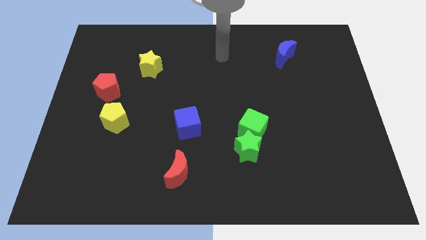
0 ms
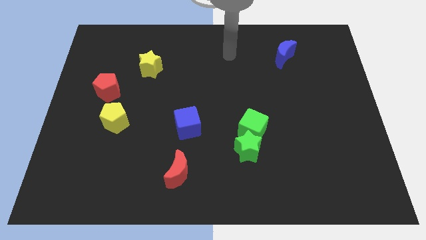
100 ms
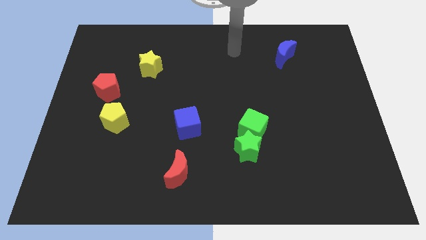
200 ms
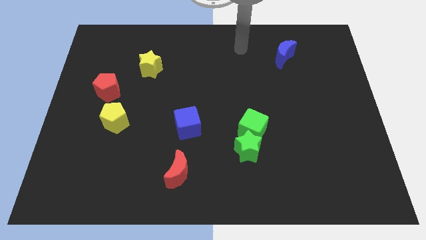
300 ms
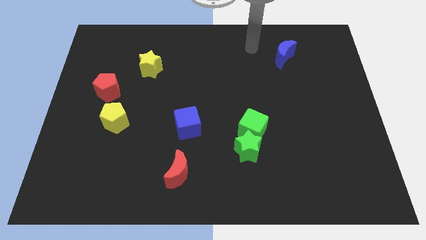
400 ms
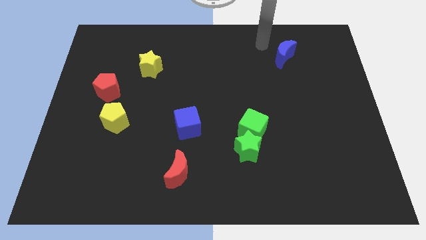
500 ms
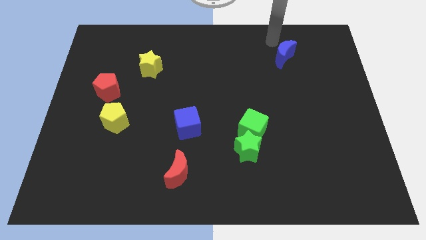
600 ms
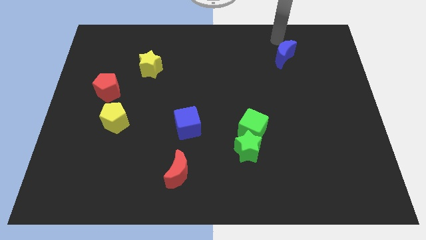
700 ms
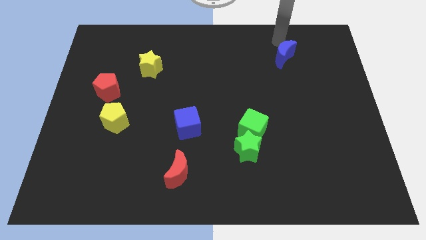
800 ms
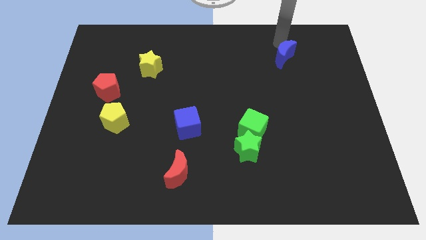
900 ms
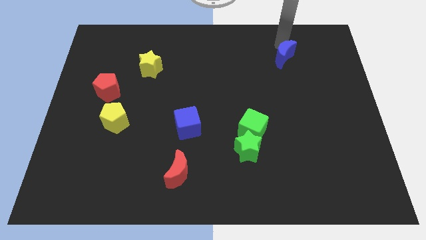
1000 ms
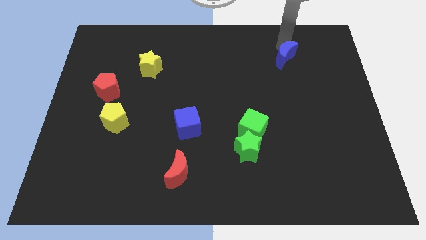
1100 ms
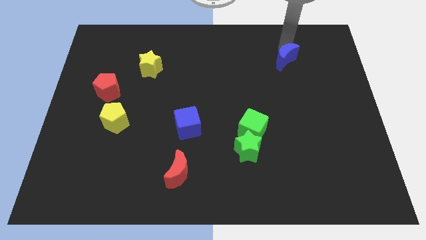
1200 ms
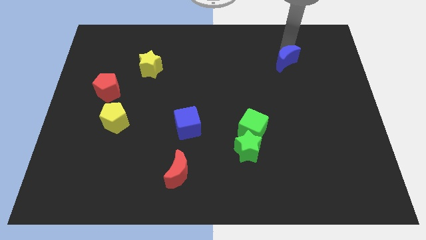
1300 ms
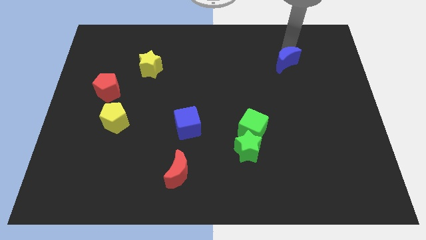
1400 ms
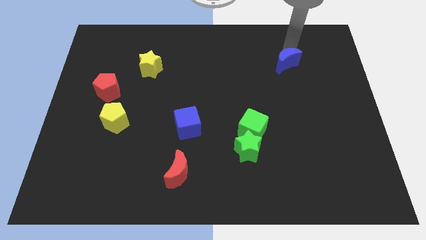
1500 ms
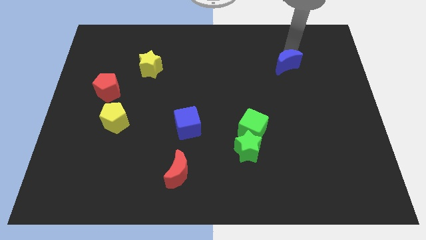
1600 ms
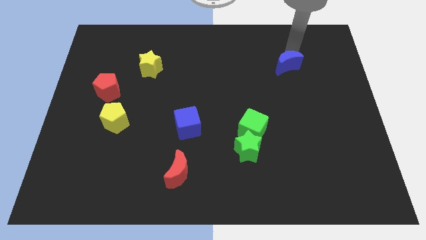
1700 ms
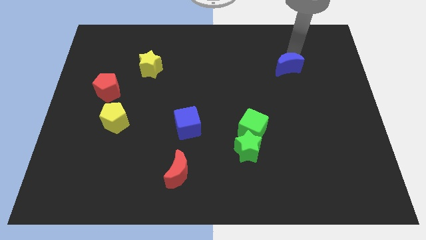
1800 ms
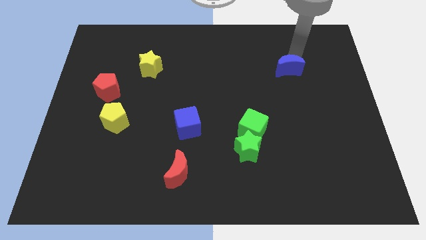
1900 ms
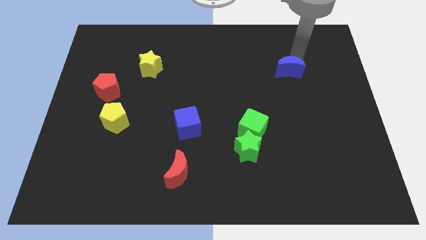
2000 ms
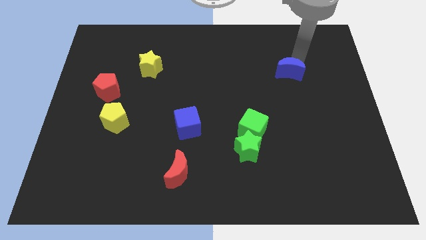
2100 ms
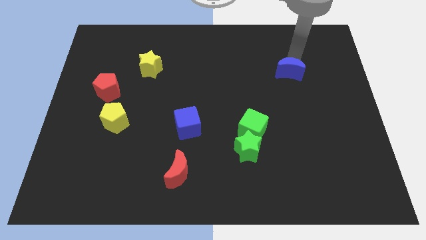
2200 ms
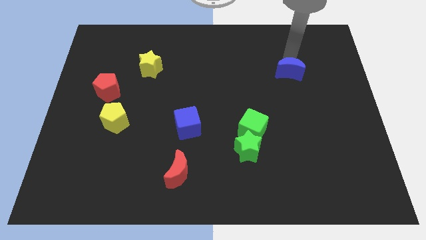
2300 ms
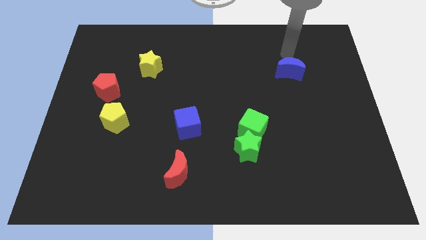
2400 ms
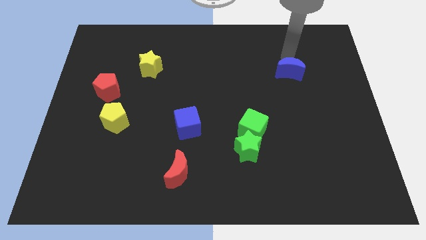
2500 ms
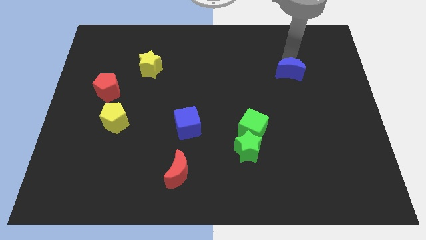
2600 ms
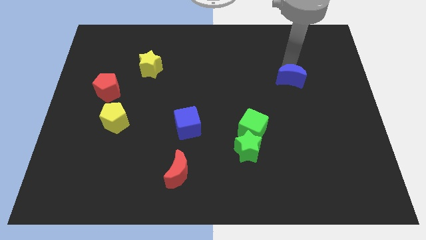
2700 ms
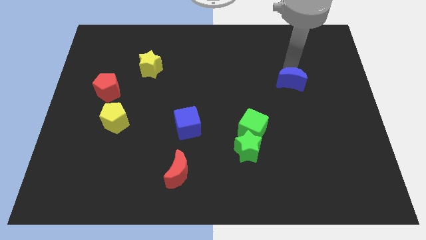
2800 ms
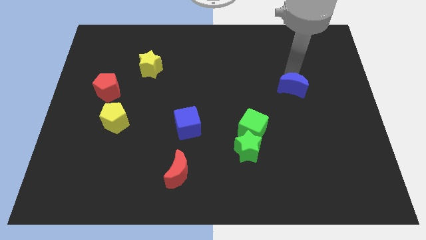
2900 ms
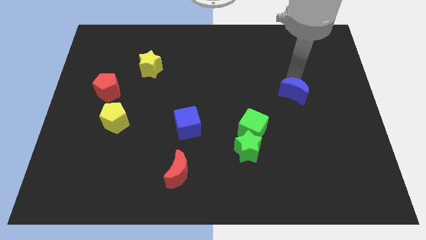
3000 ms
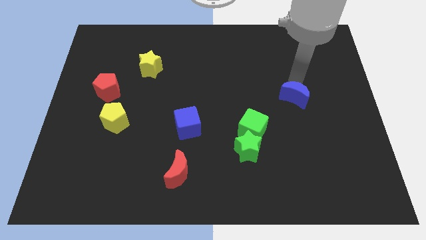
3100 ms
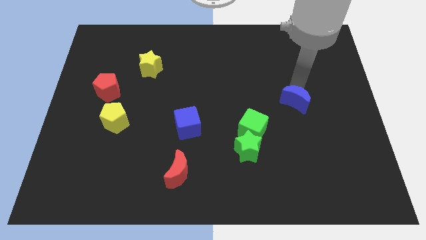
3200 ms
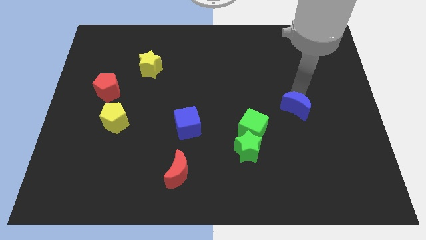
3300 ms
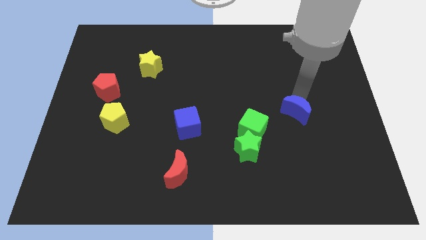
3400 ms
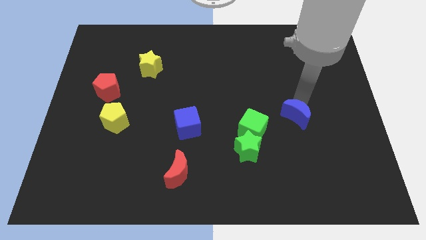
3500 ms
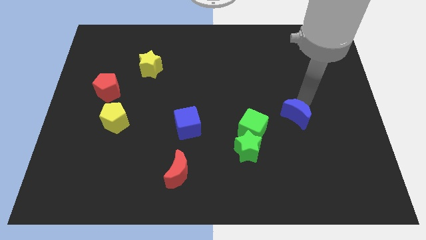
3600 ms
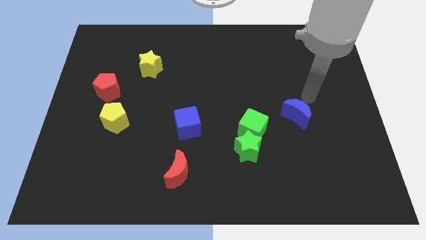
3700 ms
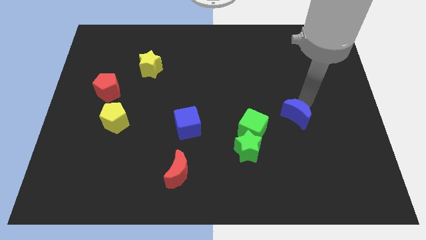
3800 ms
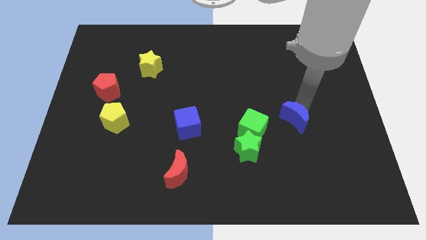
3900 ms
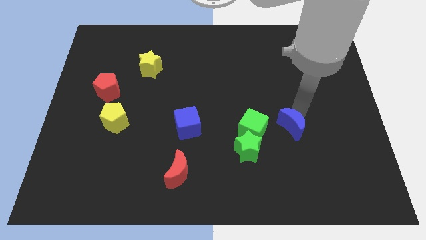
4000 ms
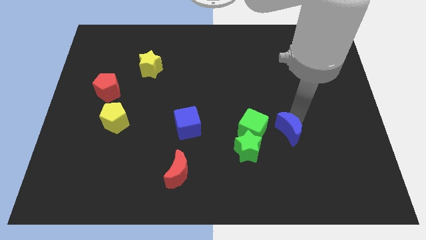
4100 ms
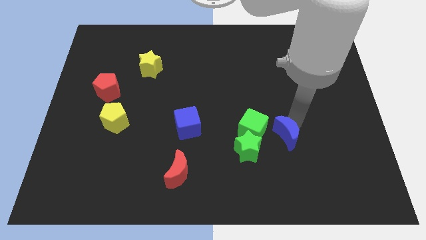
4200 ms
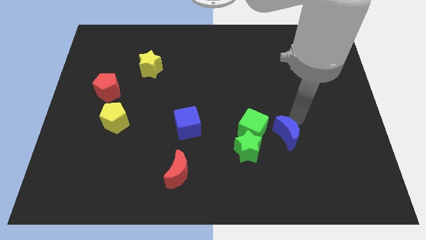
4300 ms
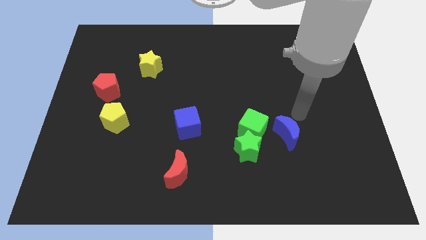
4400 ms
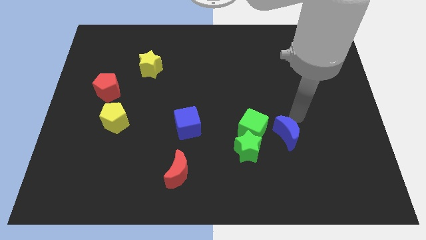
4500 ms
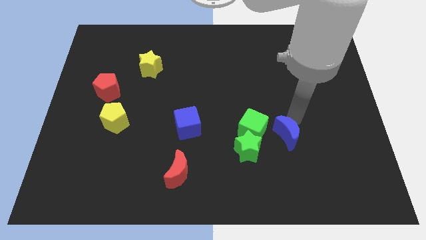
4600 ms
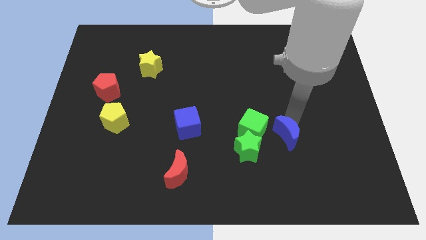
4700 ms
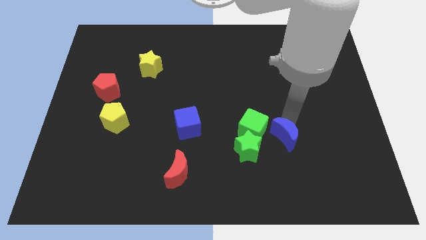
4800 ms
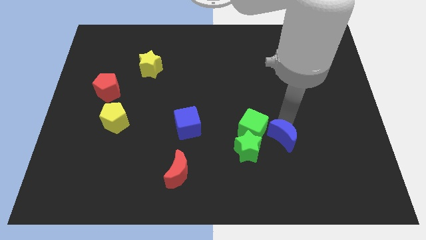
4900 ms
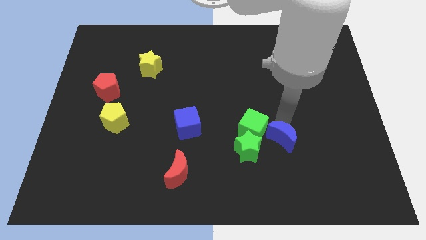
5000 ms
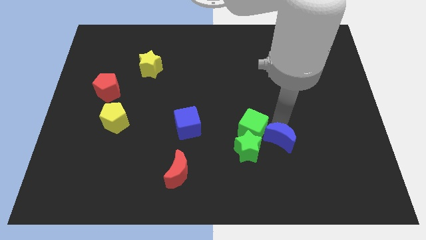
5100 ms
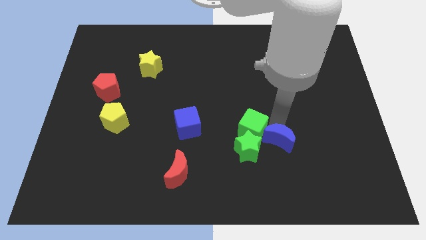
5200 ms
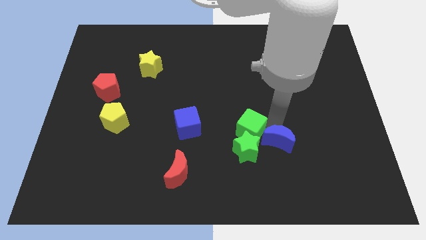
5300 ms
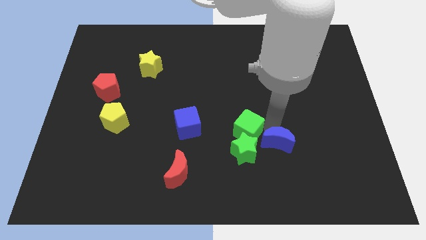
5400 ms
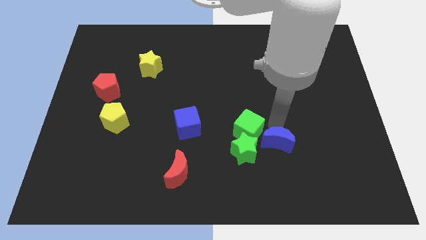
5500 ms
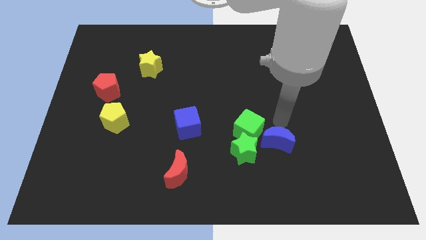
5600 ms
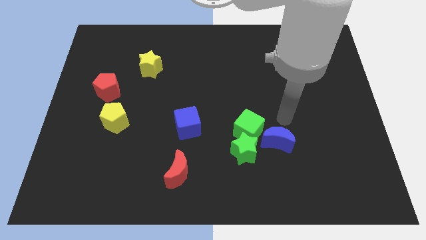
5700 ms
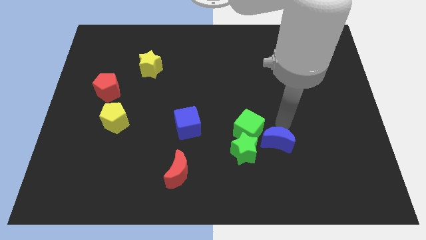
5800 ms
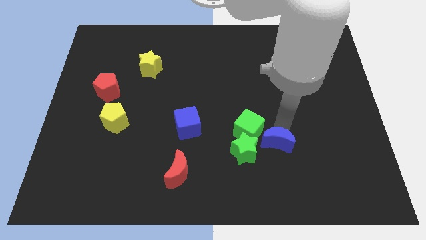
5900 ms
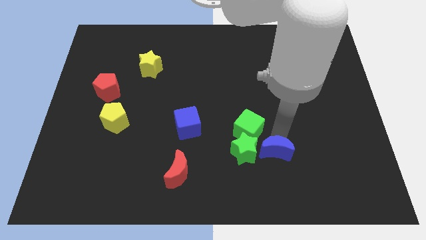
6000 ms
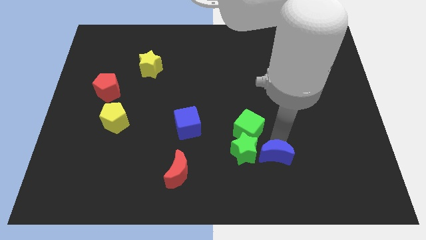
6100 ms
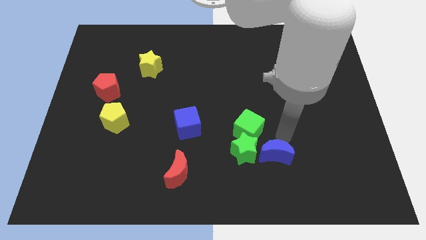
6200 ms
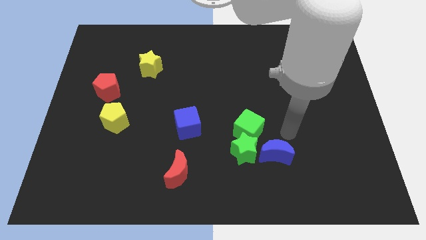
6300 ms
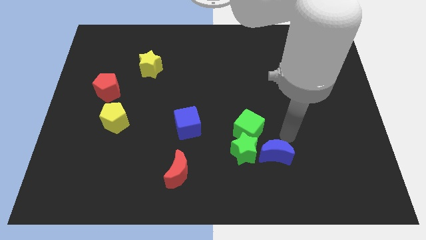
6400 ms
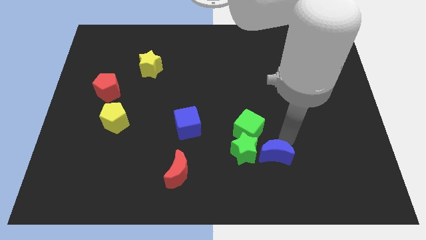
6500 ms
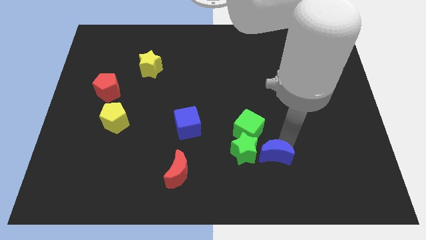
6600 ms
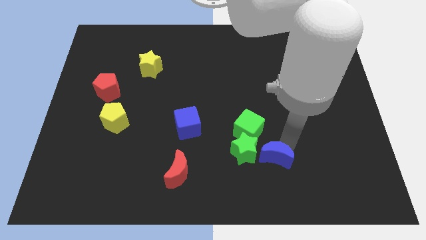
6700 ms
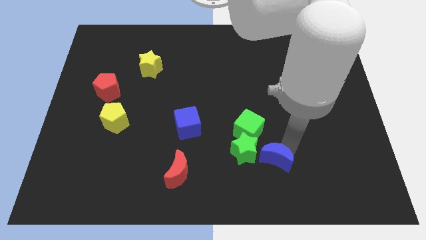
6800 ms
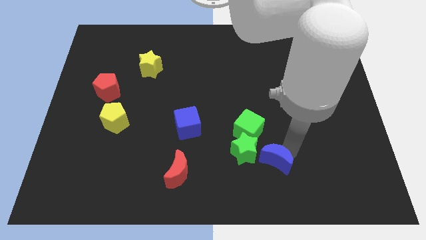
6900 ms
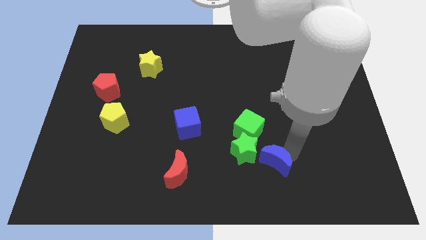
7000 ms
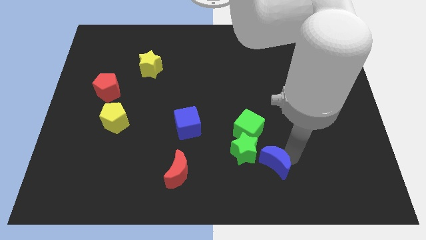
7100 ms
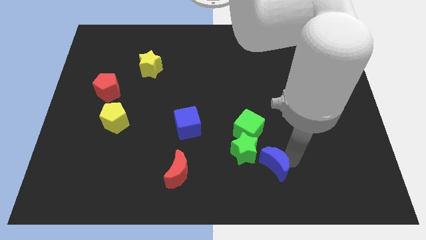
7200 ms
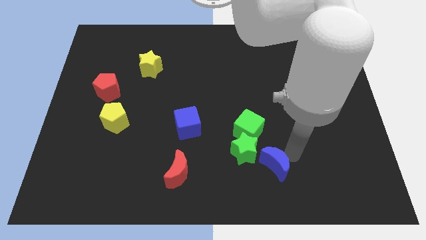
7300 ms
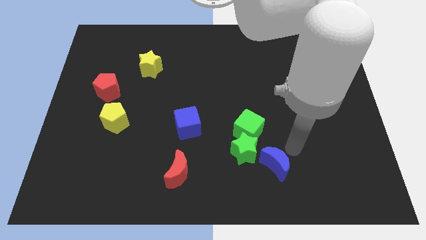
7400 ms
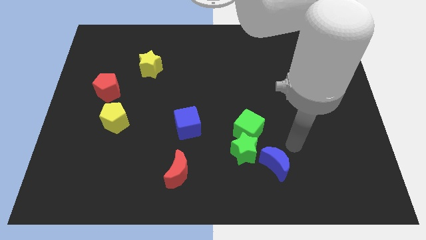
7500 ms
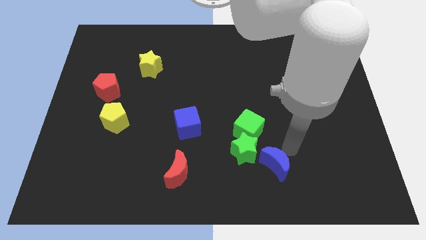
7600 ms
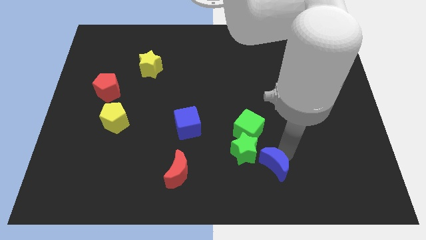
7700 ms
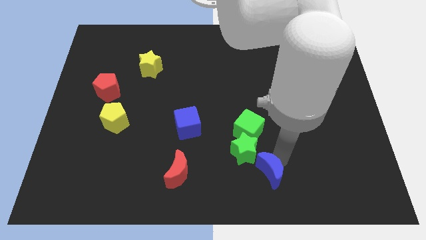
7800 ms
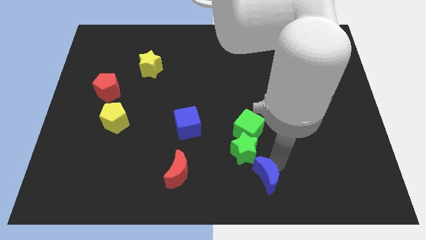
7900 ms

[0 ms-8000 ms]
slide the blue moon to the bottom
